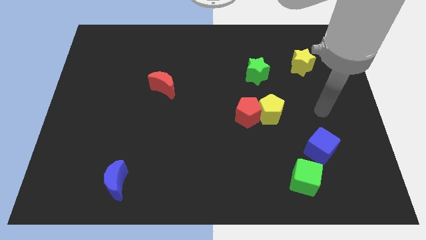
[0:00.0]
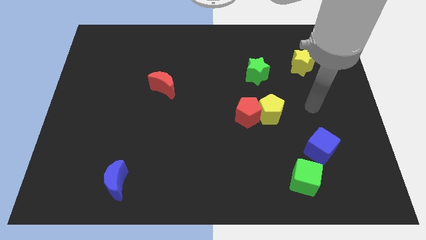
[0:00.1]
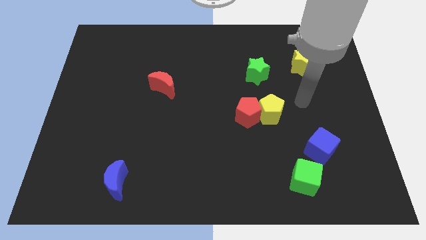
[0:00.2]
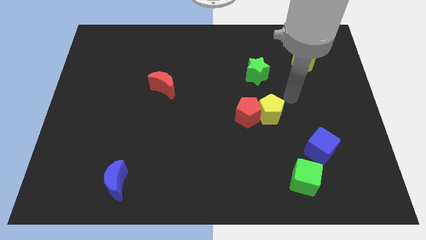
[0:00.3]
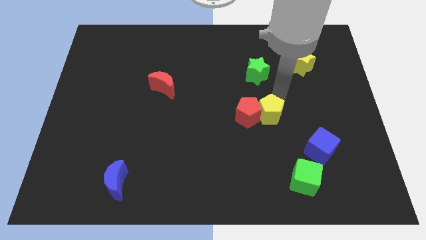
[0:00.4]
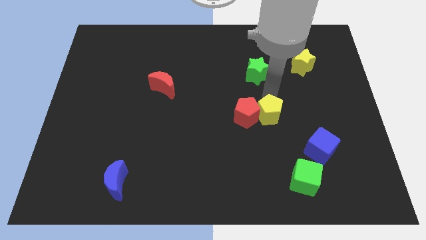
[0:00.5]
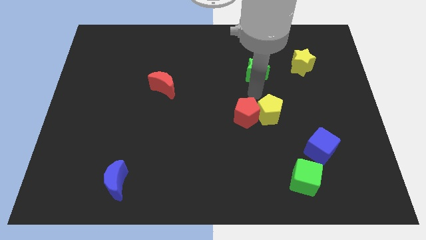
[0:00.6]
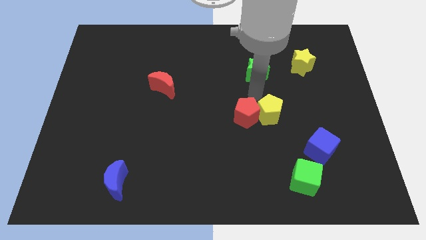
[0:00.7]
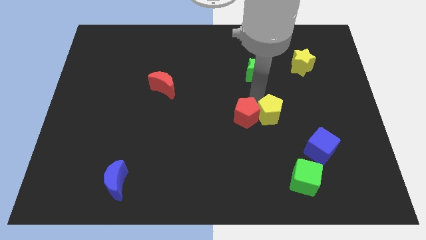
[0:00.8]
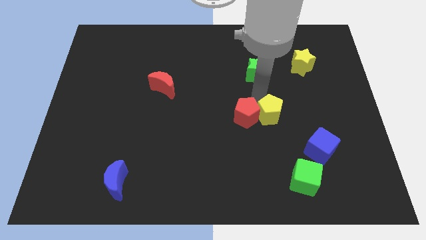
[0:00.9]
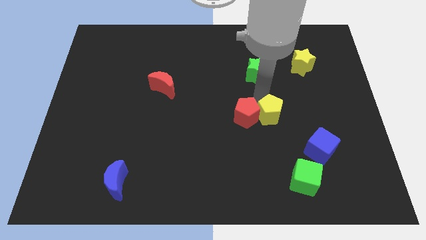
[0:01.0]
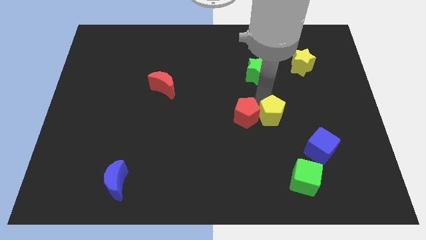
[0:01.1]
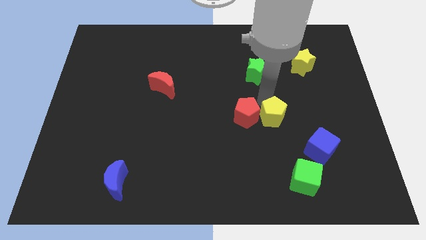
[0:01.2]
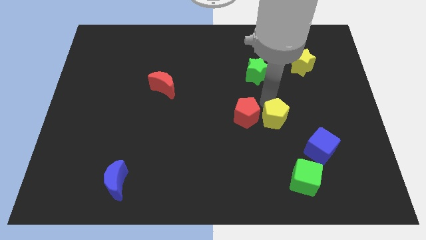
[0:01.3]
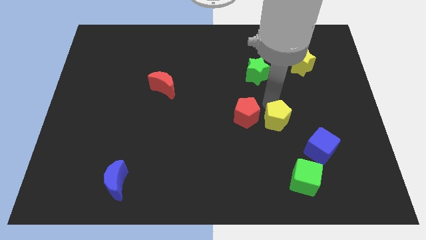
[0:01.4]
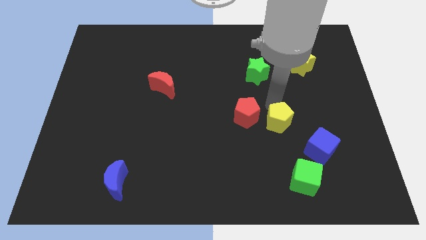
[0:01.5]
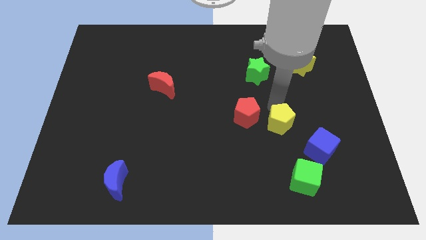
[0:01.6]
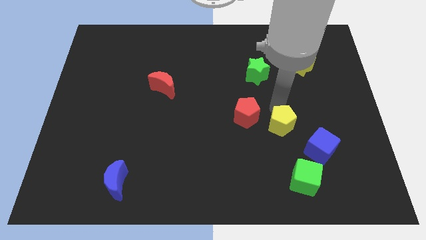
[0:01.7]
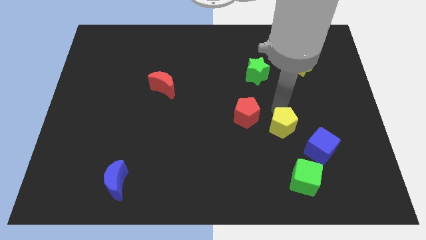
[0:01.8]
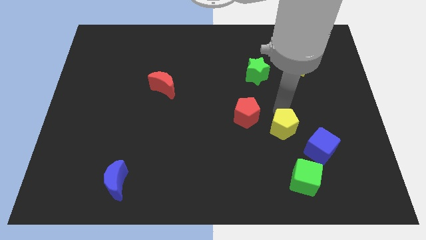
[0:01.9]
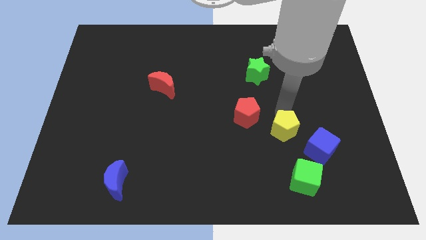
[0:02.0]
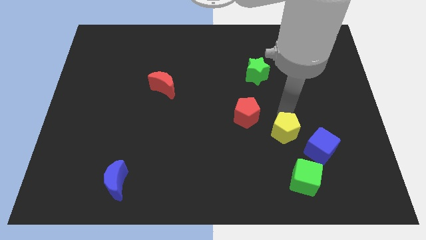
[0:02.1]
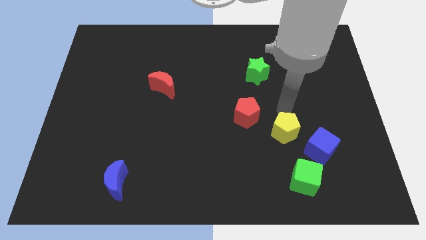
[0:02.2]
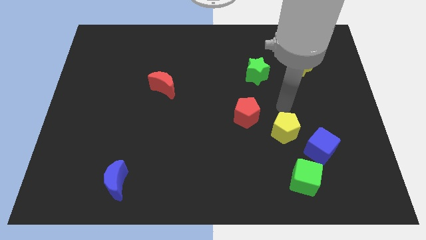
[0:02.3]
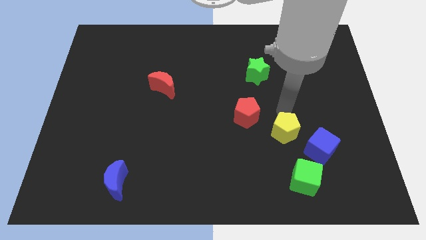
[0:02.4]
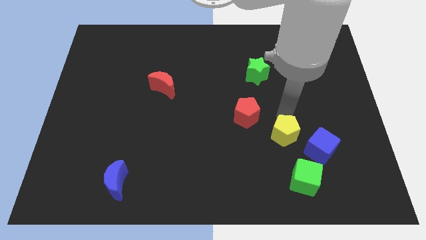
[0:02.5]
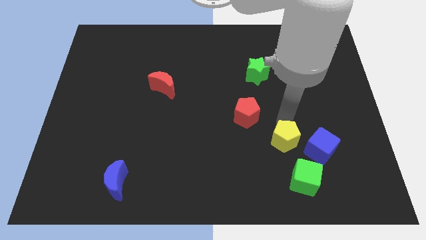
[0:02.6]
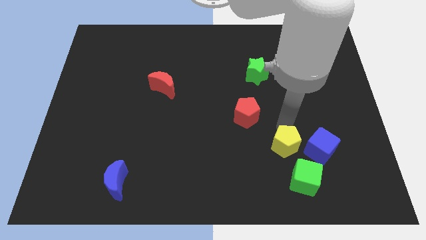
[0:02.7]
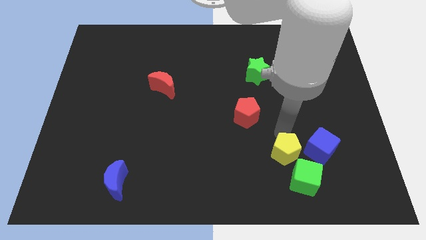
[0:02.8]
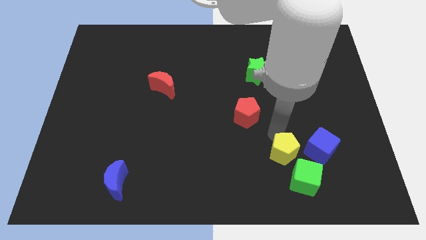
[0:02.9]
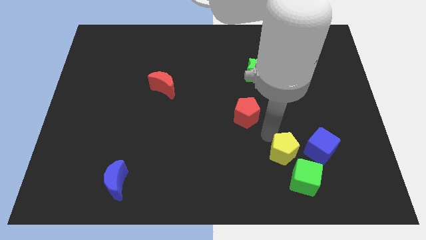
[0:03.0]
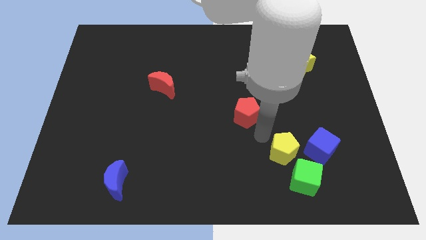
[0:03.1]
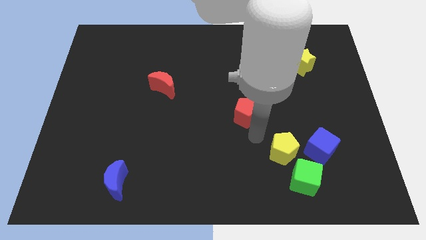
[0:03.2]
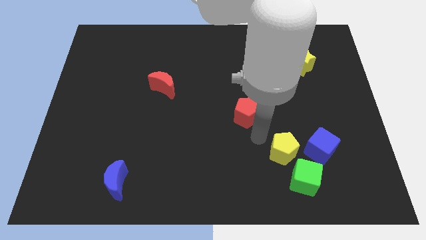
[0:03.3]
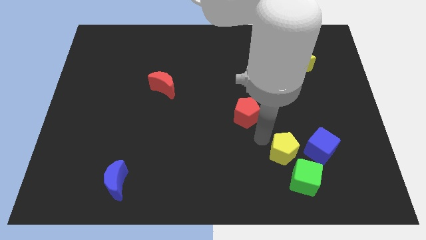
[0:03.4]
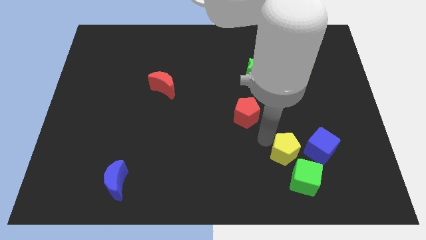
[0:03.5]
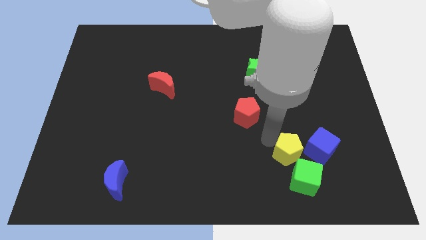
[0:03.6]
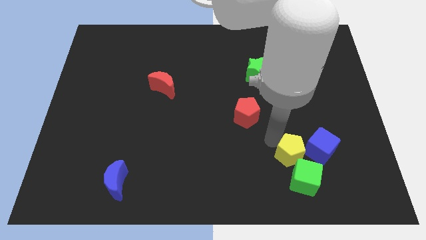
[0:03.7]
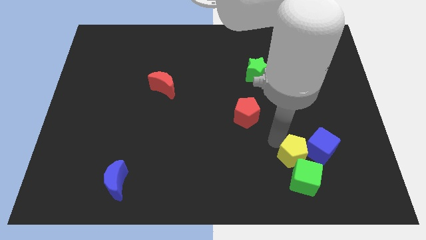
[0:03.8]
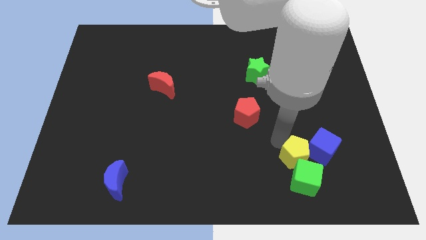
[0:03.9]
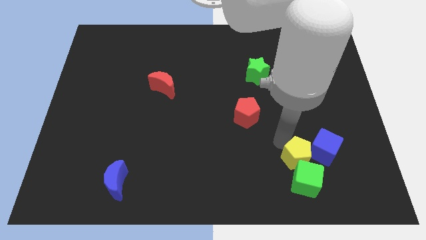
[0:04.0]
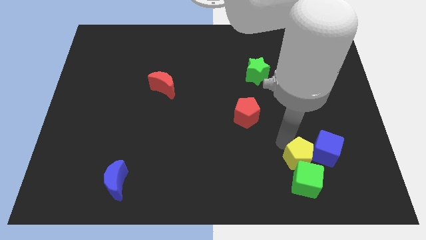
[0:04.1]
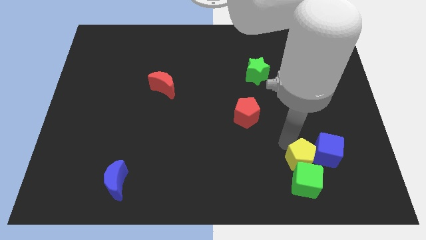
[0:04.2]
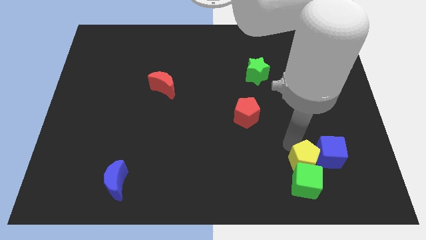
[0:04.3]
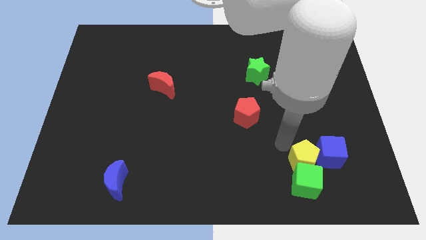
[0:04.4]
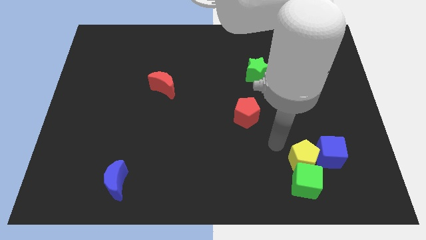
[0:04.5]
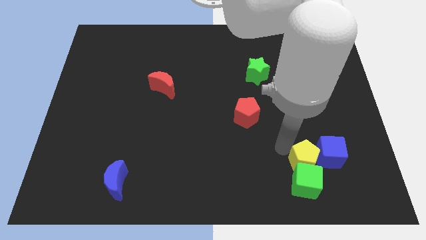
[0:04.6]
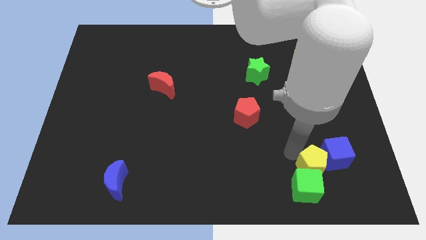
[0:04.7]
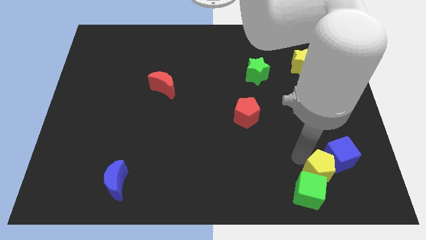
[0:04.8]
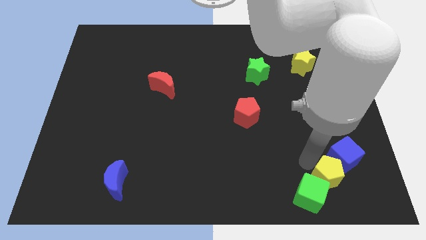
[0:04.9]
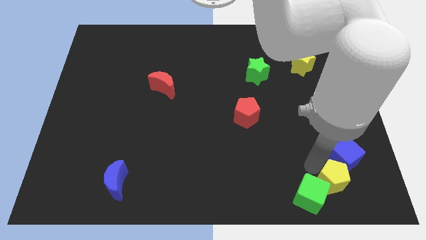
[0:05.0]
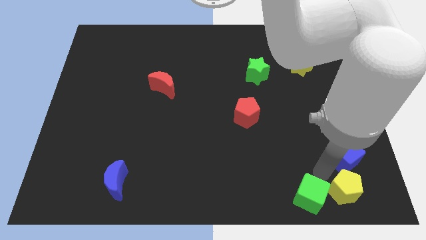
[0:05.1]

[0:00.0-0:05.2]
slide the yellow pentagon to the bottom right corner

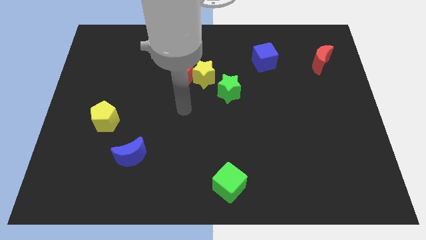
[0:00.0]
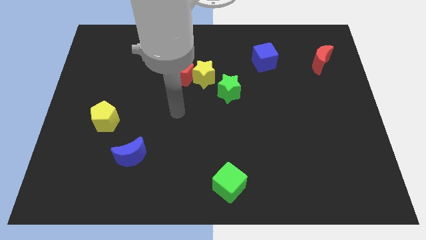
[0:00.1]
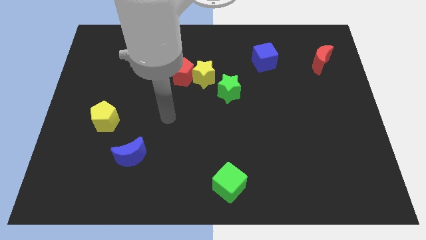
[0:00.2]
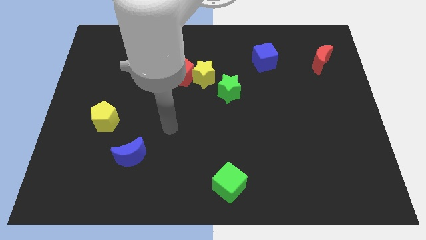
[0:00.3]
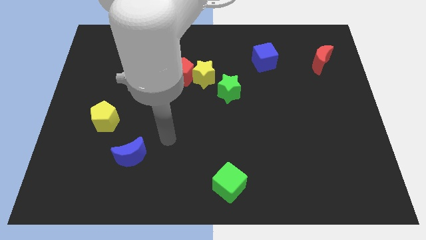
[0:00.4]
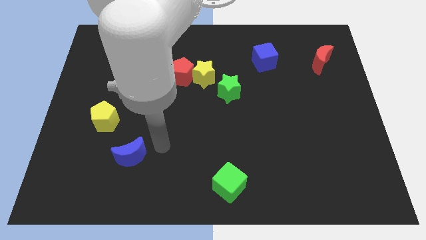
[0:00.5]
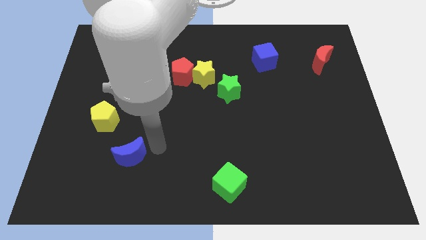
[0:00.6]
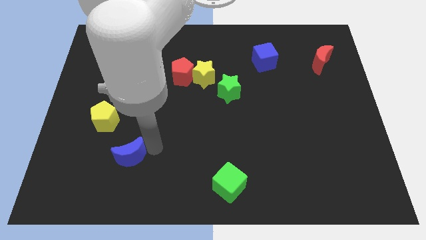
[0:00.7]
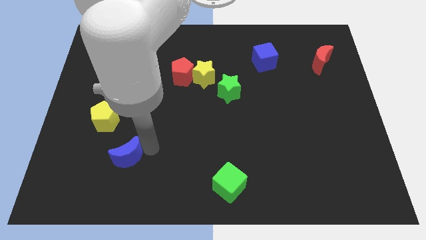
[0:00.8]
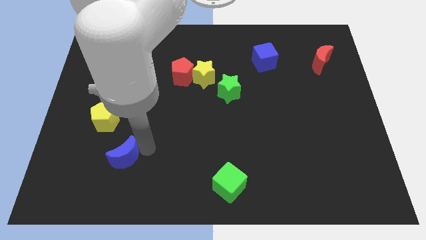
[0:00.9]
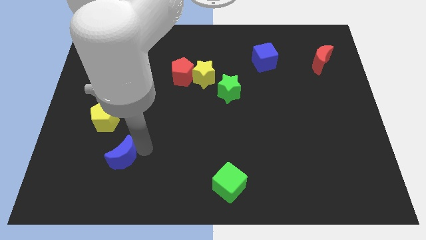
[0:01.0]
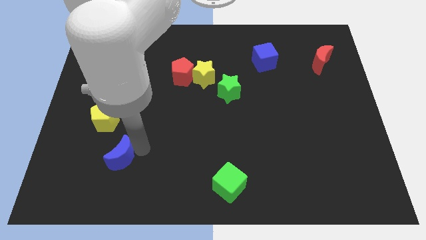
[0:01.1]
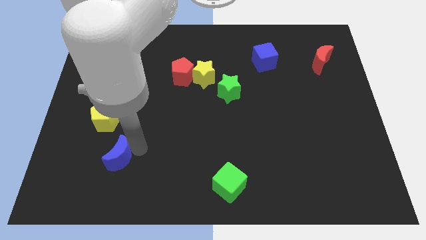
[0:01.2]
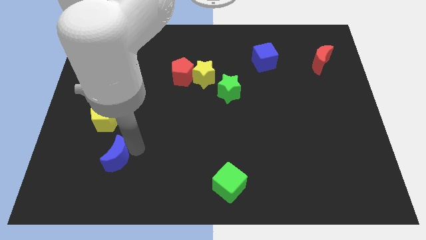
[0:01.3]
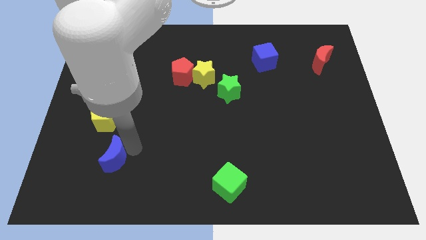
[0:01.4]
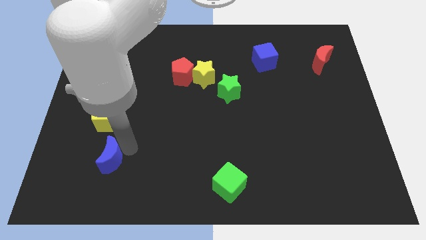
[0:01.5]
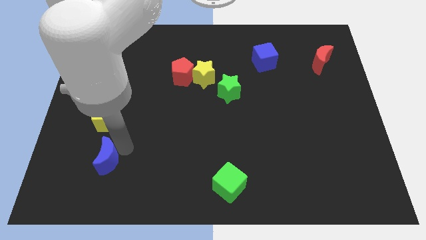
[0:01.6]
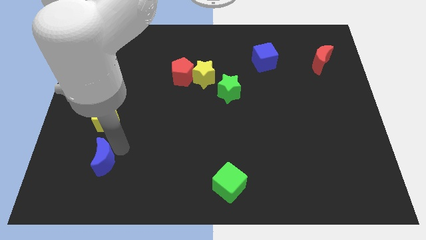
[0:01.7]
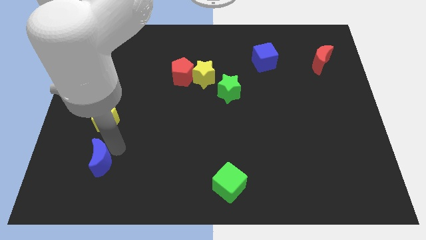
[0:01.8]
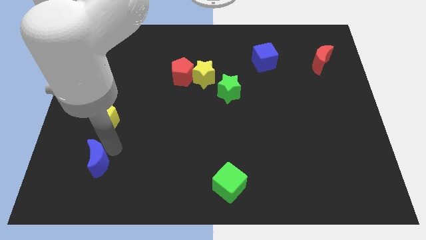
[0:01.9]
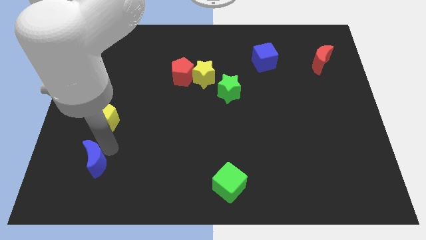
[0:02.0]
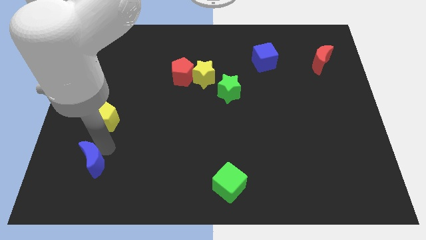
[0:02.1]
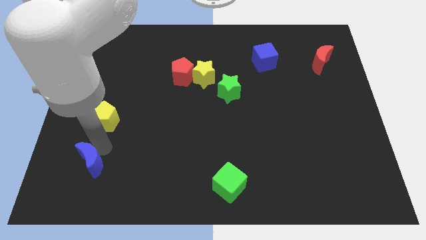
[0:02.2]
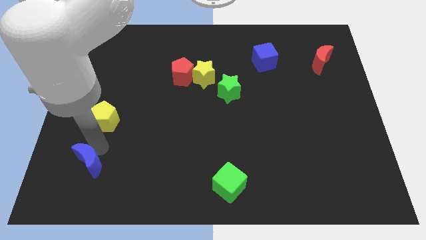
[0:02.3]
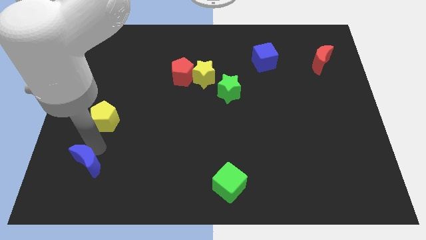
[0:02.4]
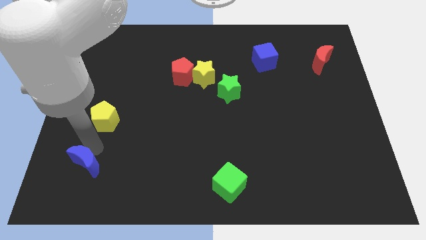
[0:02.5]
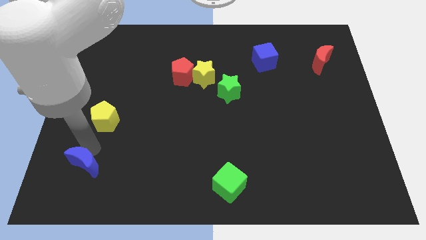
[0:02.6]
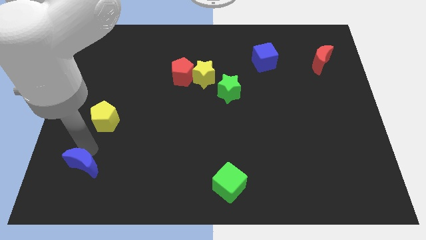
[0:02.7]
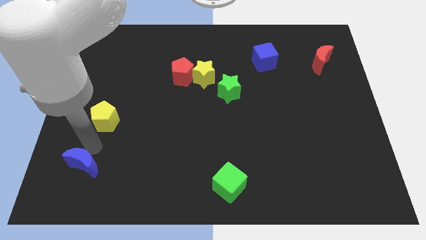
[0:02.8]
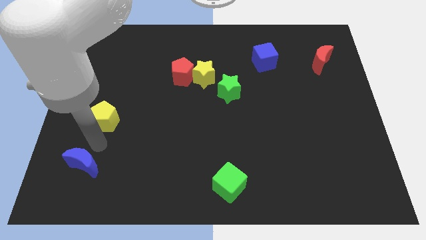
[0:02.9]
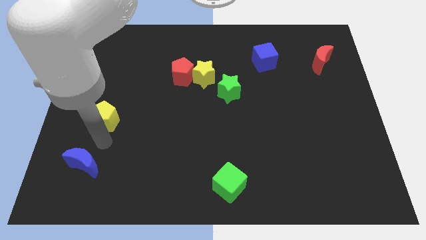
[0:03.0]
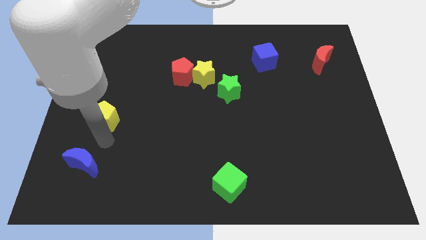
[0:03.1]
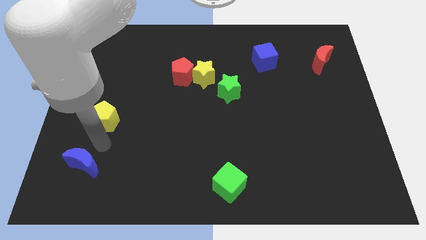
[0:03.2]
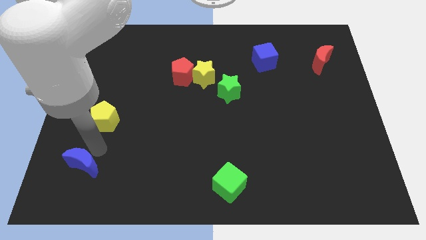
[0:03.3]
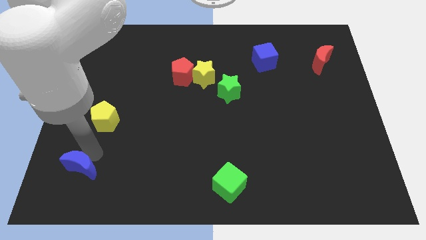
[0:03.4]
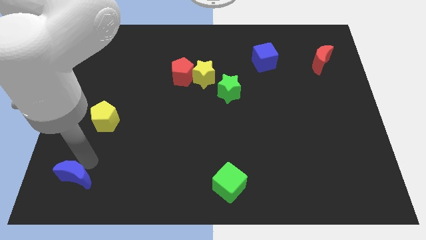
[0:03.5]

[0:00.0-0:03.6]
push the blue moon to the bottom left of the board
